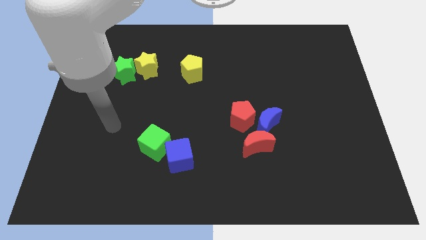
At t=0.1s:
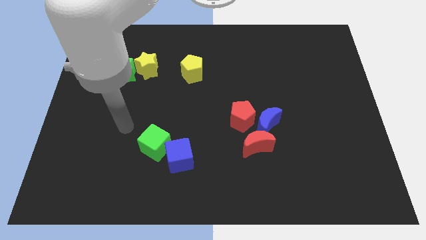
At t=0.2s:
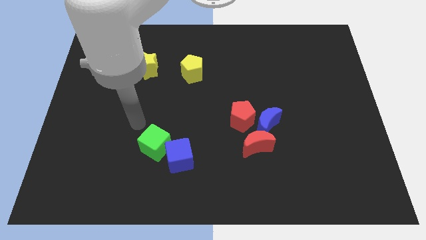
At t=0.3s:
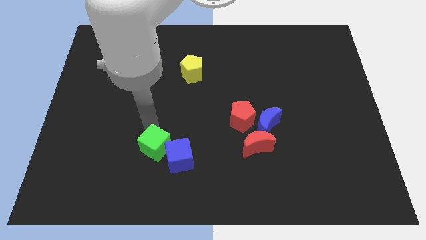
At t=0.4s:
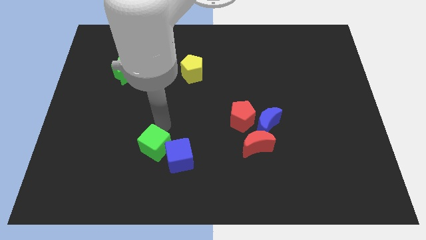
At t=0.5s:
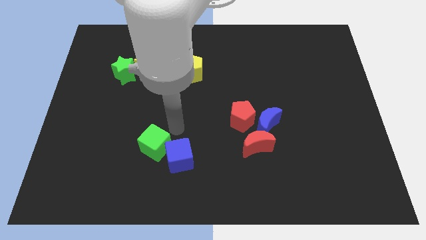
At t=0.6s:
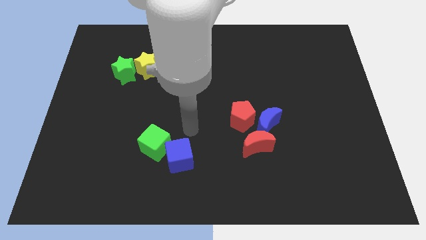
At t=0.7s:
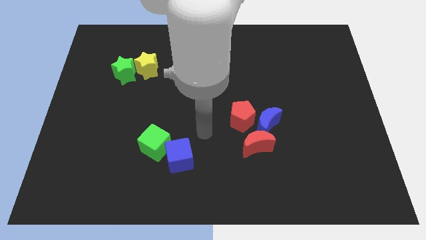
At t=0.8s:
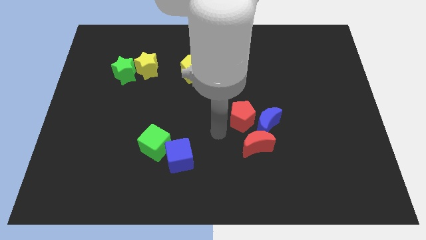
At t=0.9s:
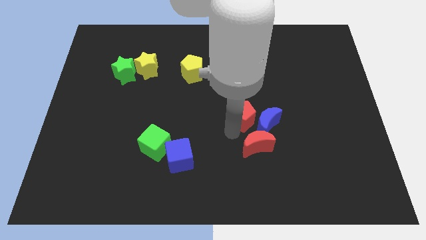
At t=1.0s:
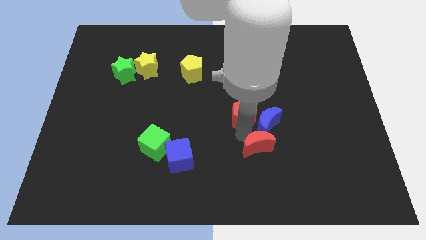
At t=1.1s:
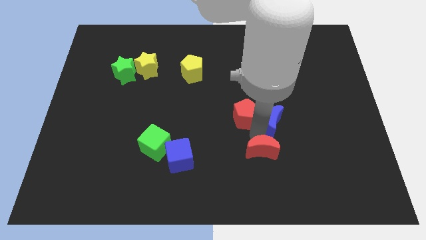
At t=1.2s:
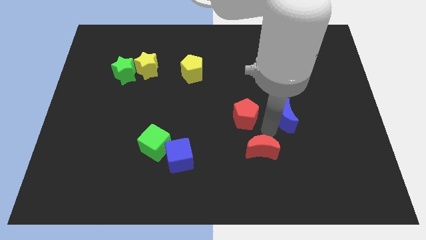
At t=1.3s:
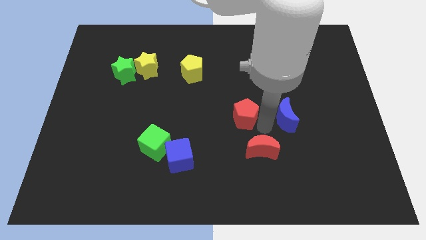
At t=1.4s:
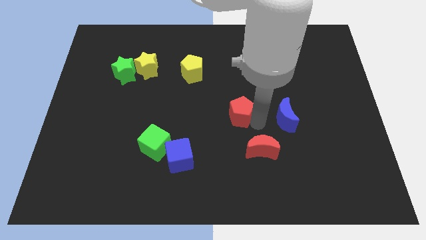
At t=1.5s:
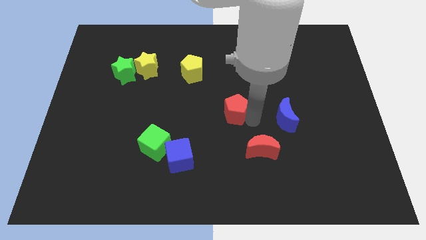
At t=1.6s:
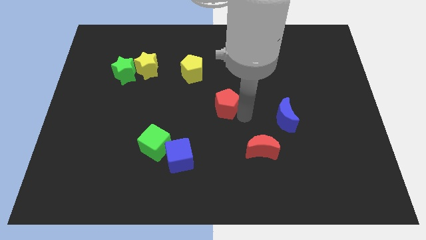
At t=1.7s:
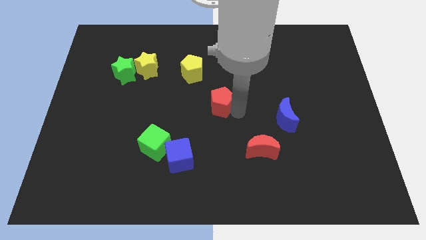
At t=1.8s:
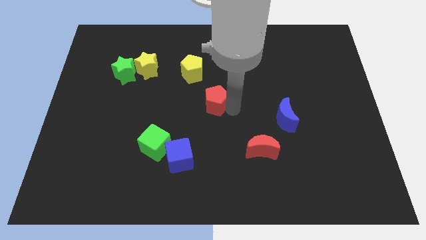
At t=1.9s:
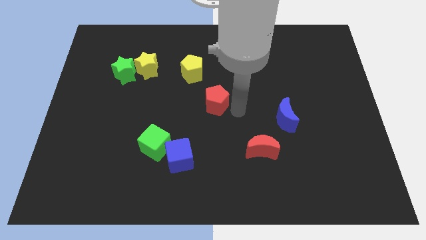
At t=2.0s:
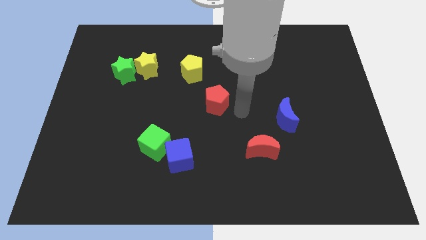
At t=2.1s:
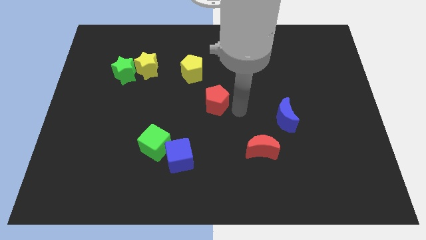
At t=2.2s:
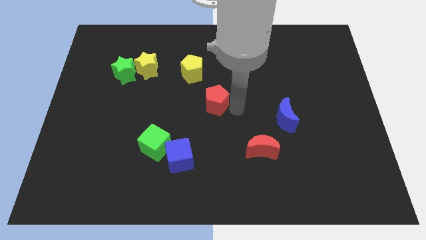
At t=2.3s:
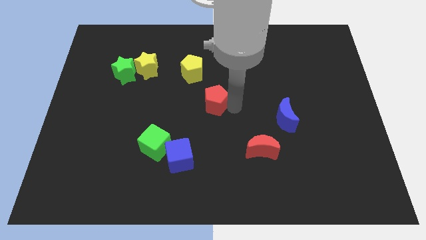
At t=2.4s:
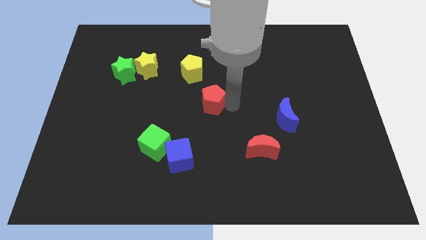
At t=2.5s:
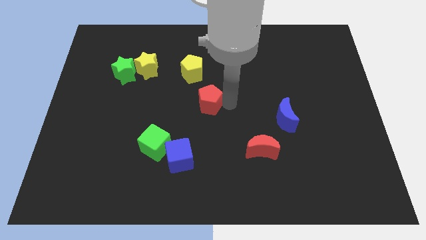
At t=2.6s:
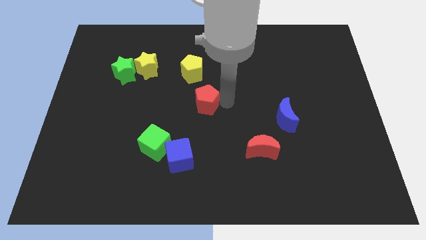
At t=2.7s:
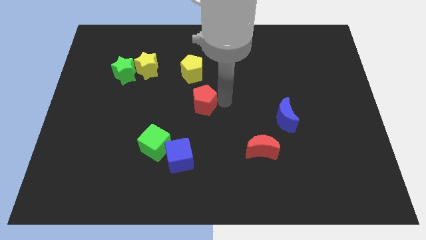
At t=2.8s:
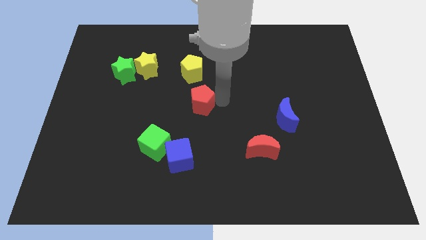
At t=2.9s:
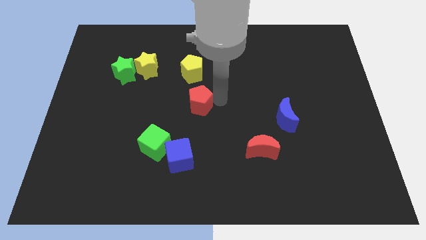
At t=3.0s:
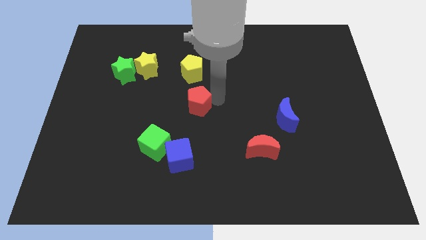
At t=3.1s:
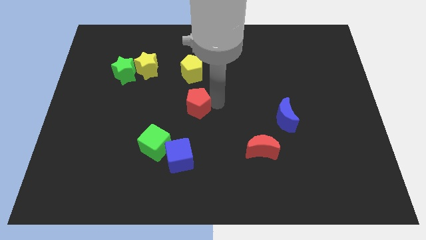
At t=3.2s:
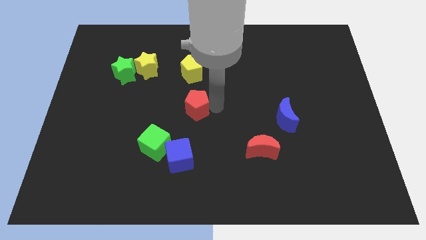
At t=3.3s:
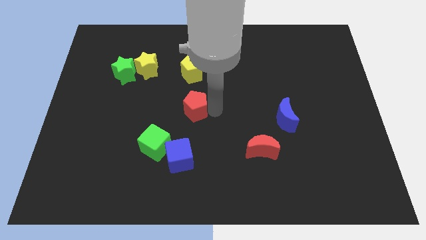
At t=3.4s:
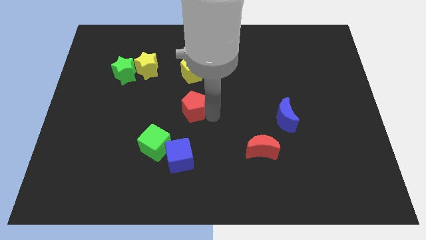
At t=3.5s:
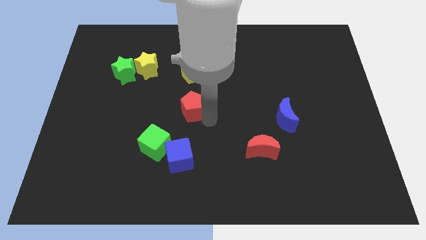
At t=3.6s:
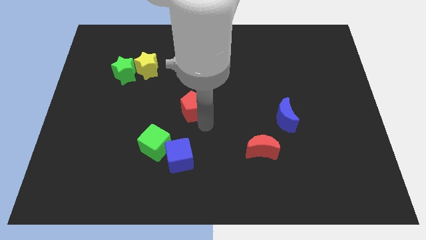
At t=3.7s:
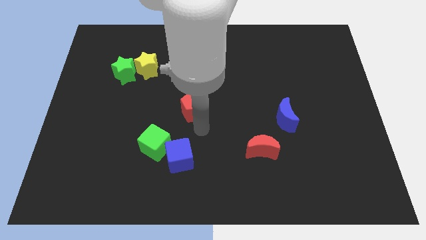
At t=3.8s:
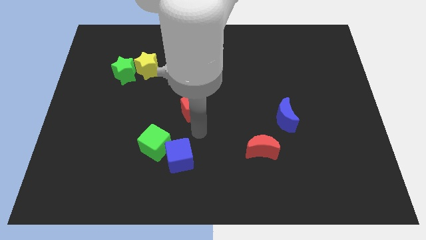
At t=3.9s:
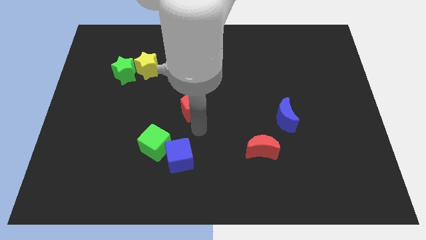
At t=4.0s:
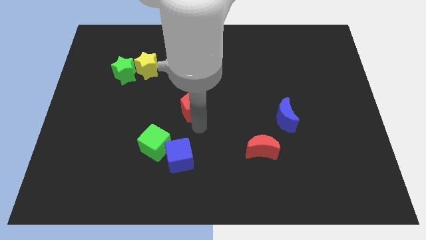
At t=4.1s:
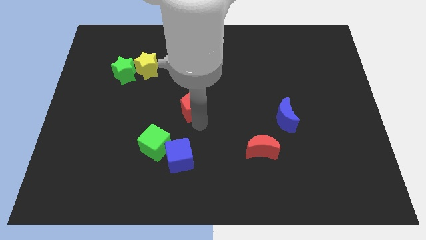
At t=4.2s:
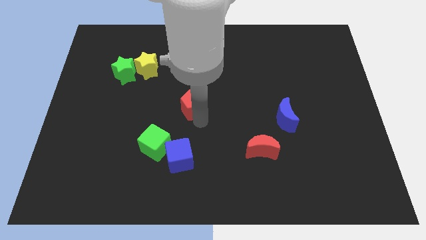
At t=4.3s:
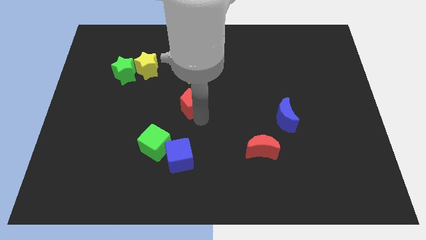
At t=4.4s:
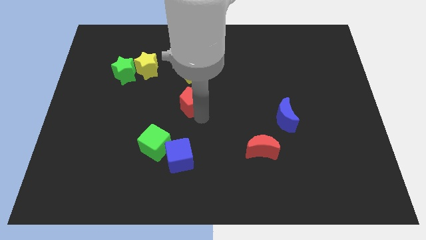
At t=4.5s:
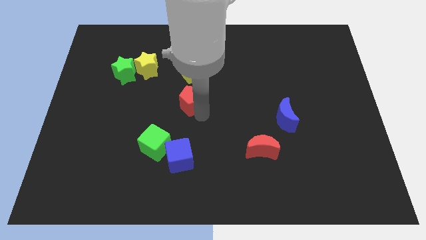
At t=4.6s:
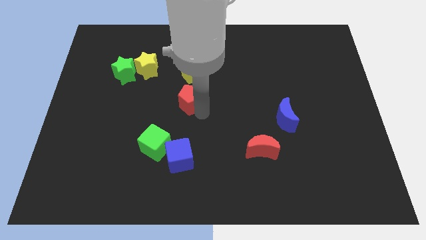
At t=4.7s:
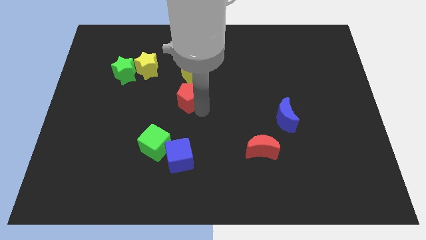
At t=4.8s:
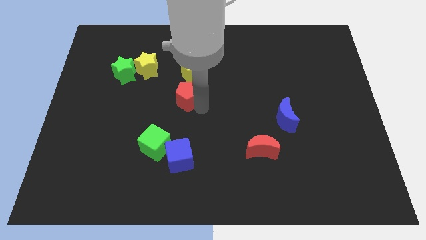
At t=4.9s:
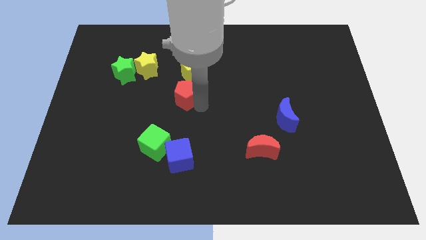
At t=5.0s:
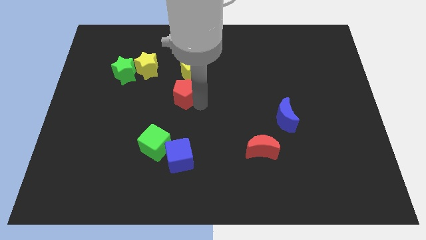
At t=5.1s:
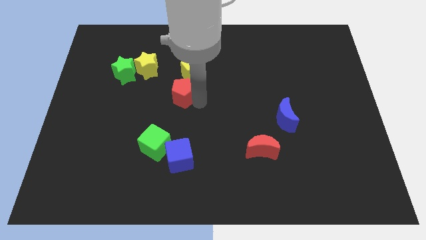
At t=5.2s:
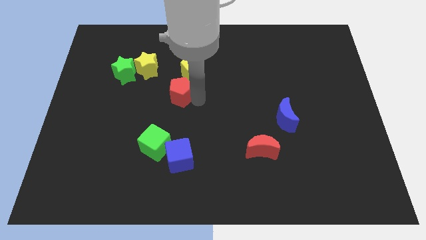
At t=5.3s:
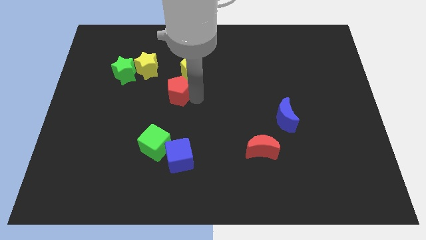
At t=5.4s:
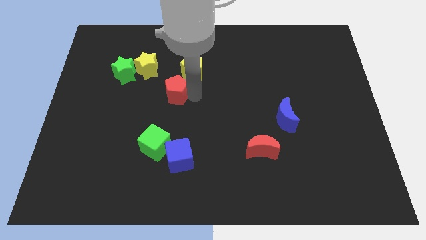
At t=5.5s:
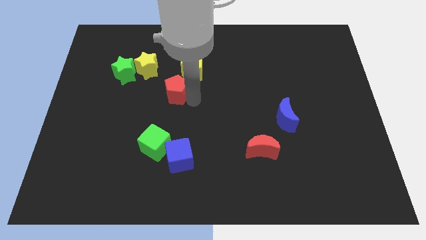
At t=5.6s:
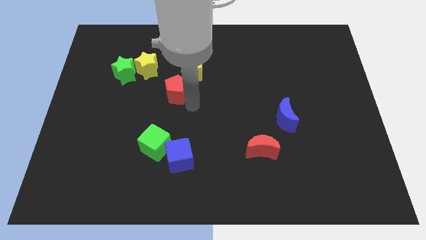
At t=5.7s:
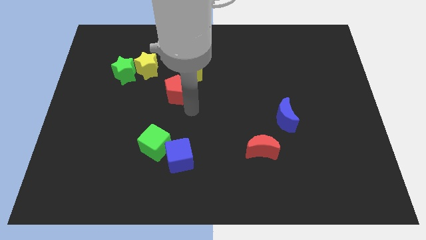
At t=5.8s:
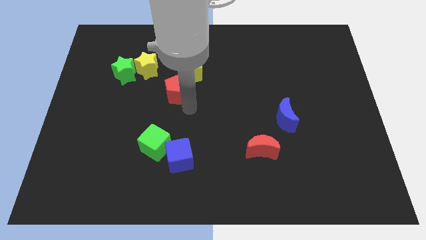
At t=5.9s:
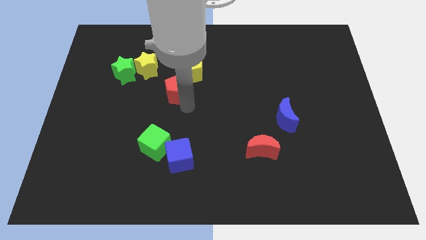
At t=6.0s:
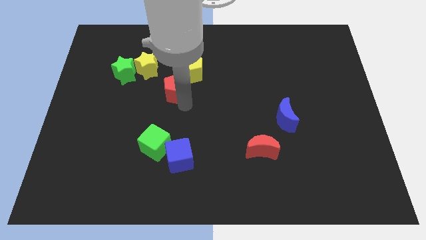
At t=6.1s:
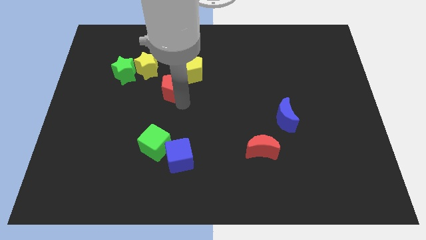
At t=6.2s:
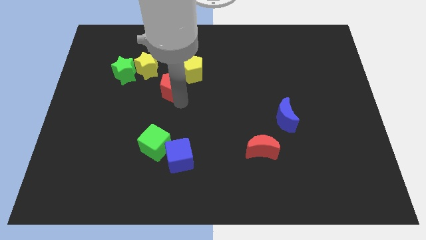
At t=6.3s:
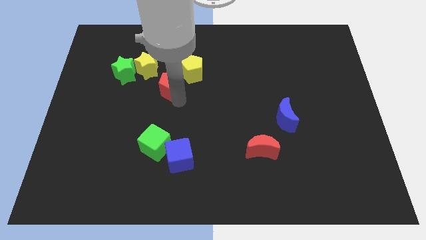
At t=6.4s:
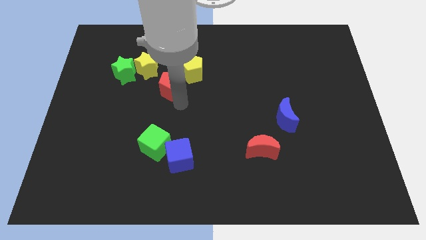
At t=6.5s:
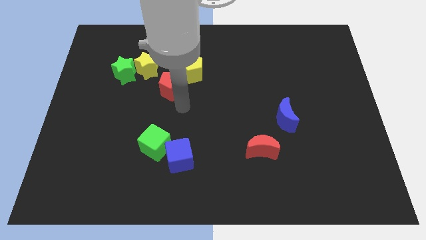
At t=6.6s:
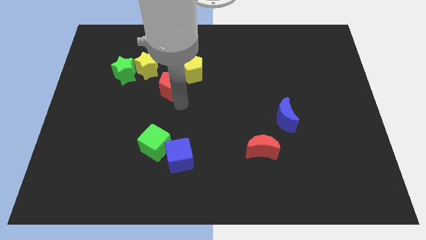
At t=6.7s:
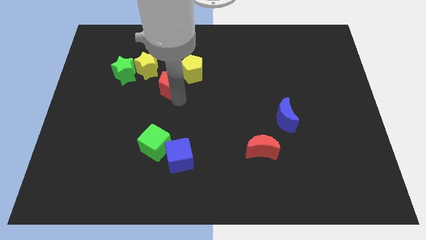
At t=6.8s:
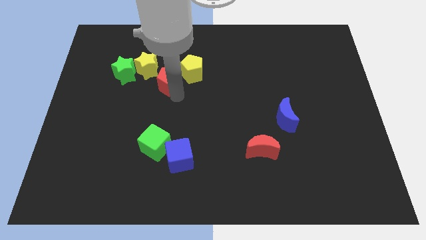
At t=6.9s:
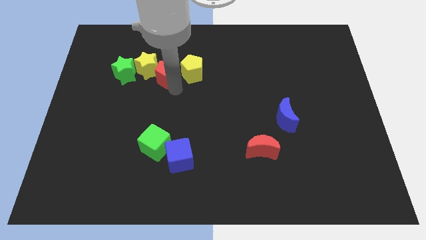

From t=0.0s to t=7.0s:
put the red pentagon to the yellow star
